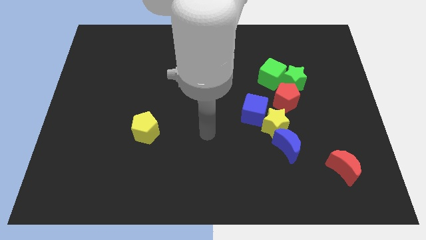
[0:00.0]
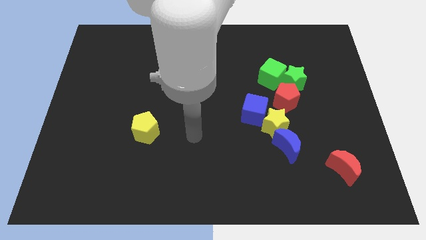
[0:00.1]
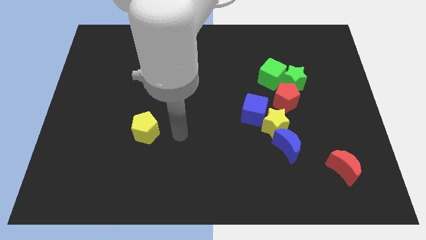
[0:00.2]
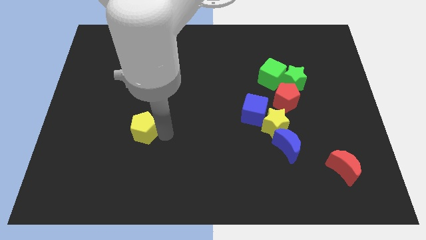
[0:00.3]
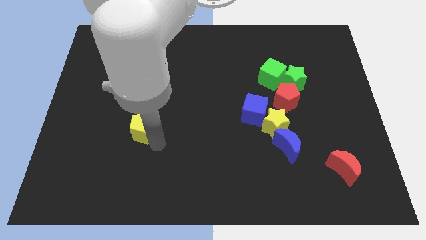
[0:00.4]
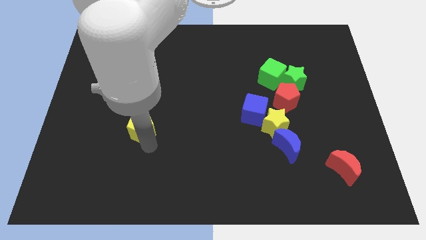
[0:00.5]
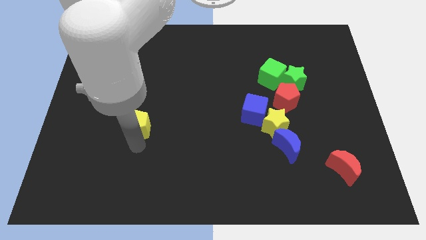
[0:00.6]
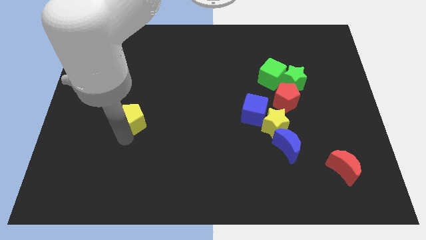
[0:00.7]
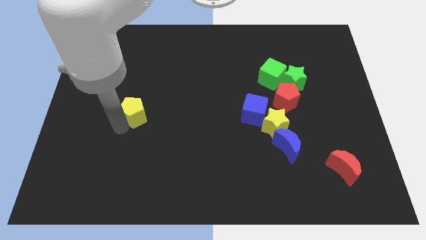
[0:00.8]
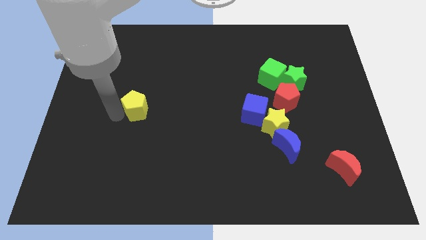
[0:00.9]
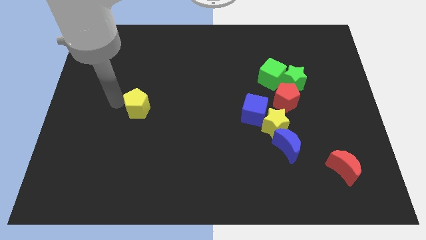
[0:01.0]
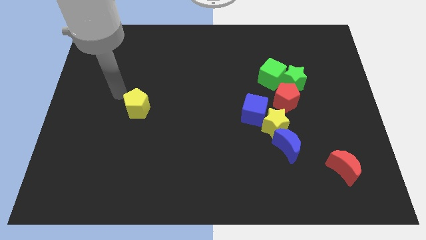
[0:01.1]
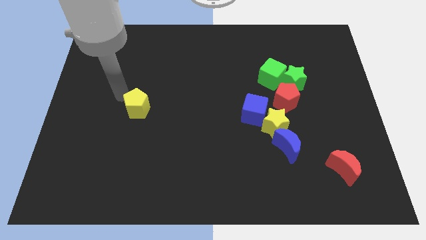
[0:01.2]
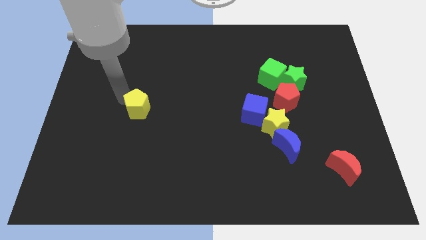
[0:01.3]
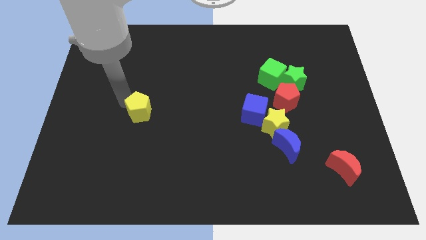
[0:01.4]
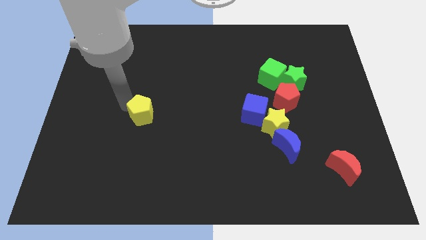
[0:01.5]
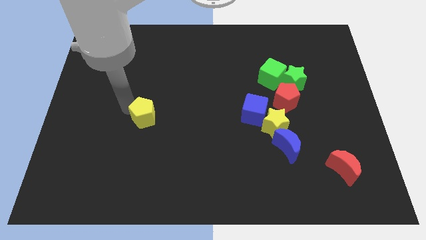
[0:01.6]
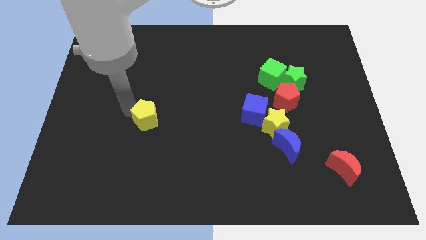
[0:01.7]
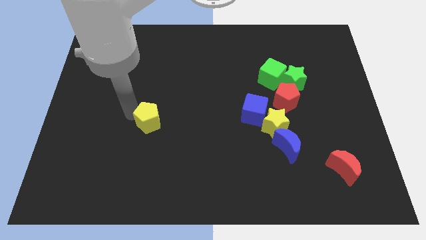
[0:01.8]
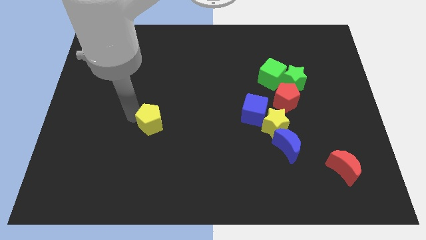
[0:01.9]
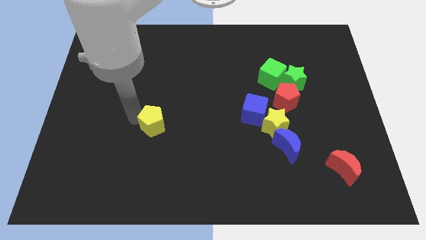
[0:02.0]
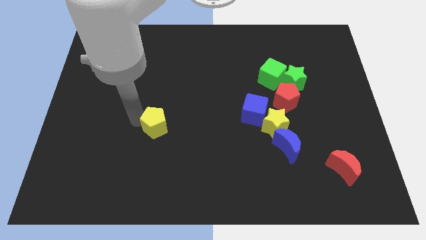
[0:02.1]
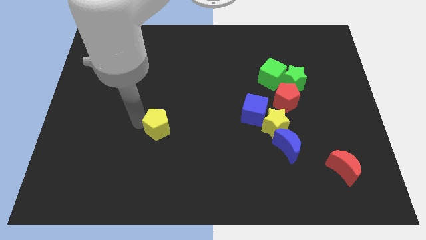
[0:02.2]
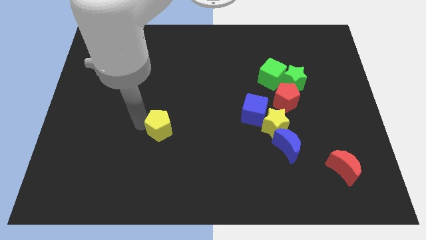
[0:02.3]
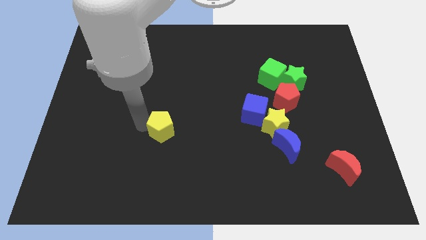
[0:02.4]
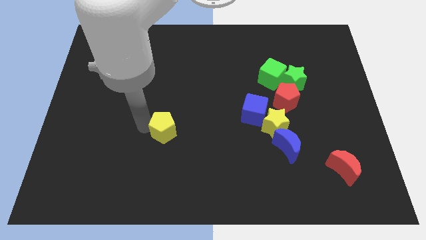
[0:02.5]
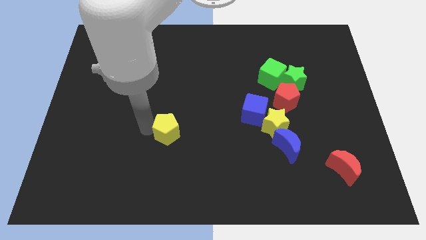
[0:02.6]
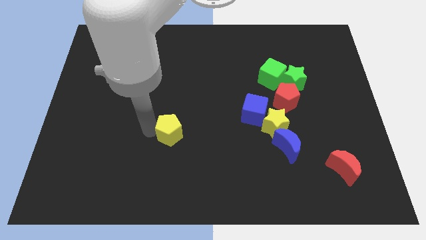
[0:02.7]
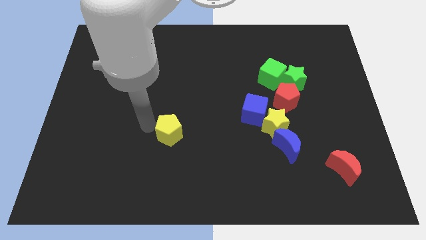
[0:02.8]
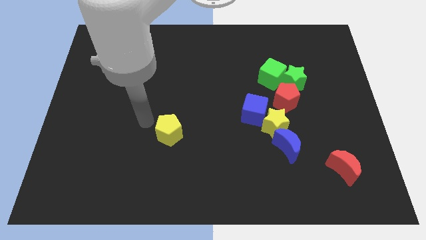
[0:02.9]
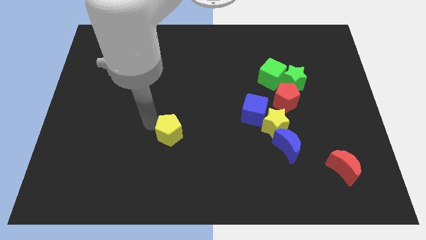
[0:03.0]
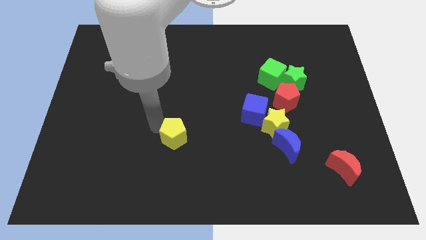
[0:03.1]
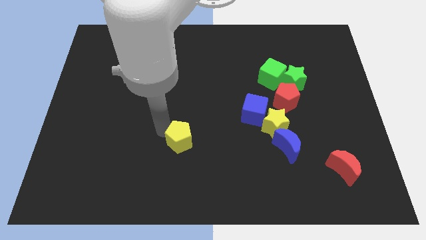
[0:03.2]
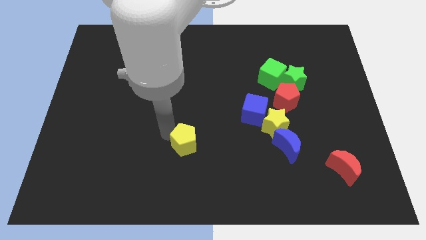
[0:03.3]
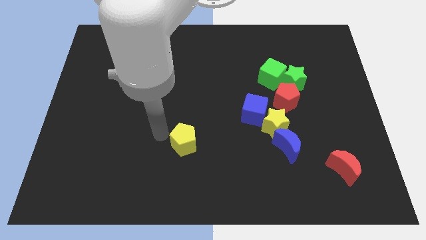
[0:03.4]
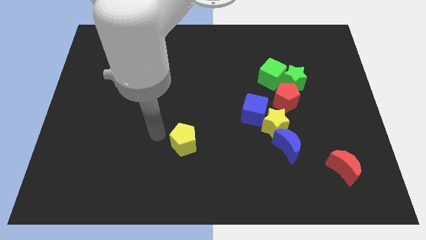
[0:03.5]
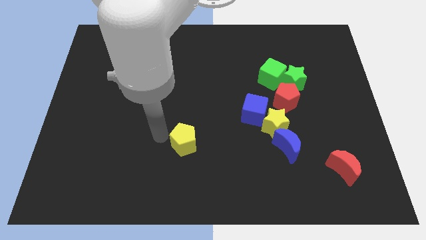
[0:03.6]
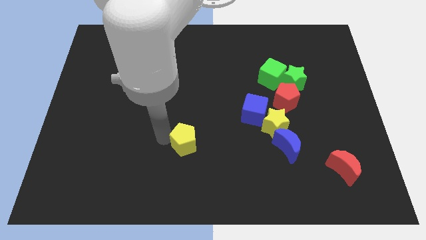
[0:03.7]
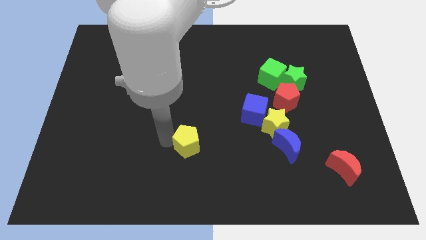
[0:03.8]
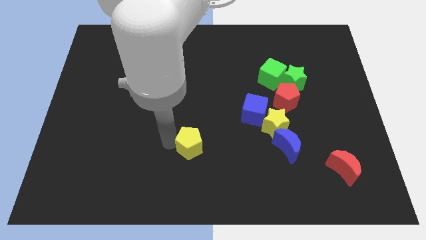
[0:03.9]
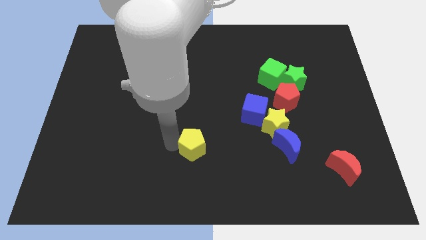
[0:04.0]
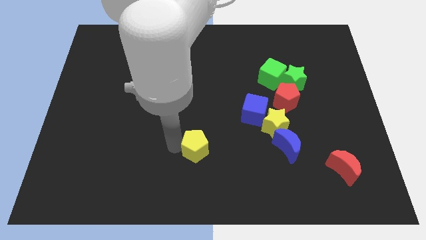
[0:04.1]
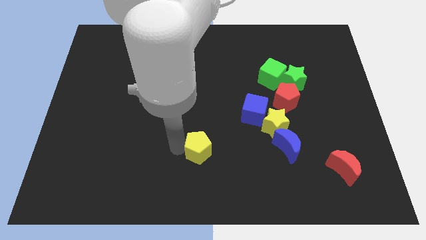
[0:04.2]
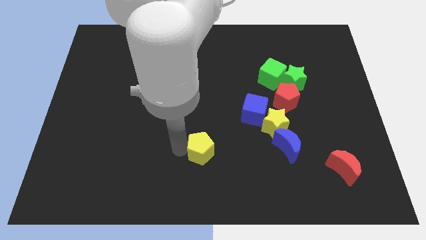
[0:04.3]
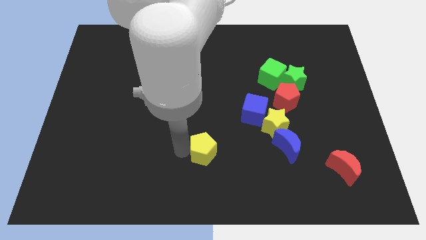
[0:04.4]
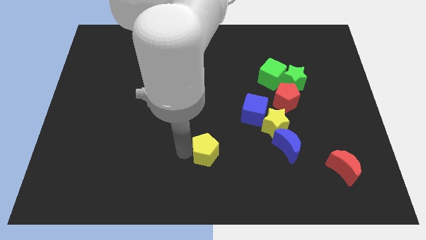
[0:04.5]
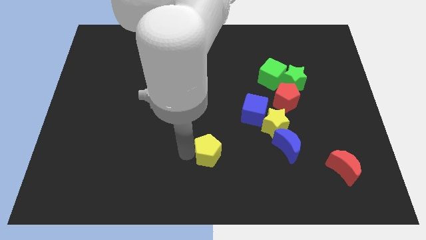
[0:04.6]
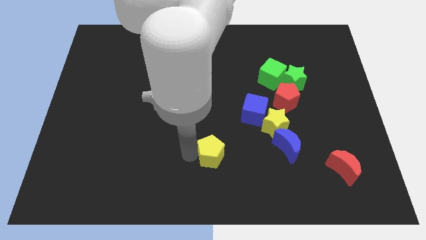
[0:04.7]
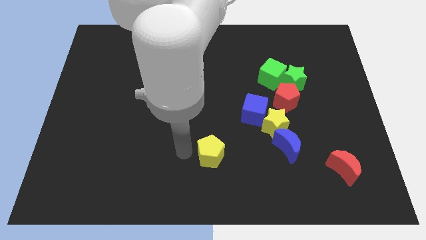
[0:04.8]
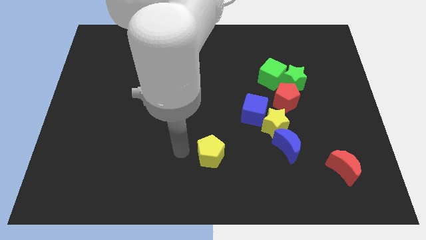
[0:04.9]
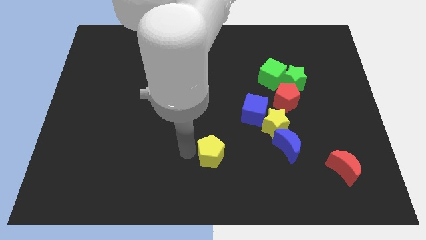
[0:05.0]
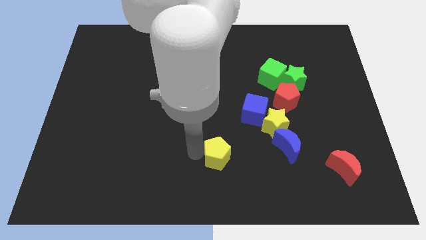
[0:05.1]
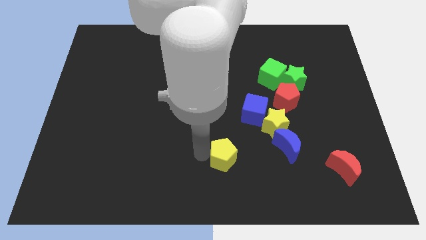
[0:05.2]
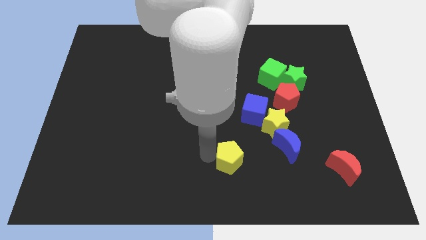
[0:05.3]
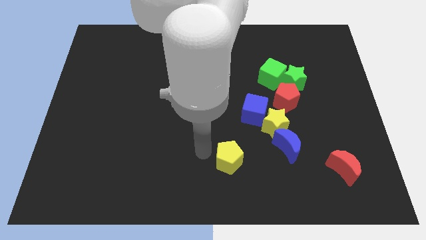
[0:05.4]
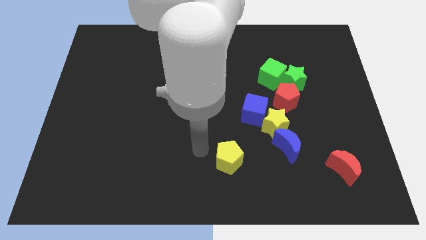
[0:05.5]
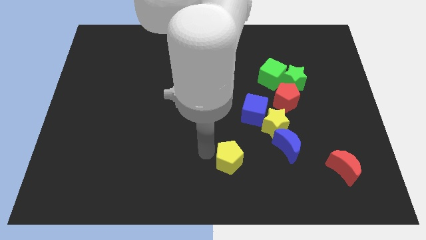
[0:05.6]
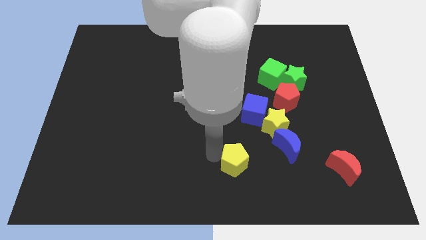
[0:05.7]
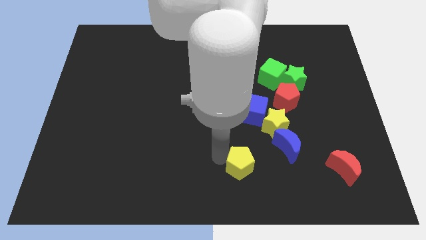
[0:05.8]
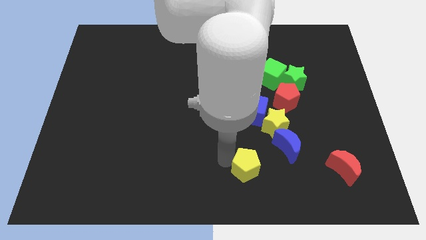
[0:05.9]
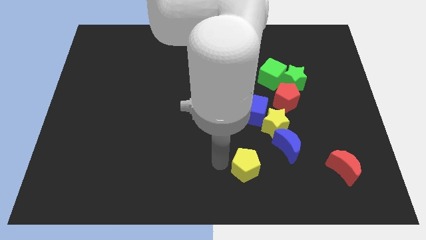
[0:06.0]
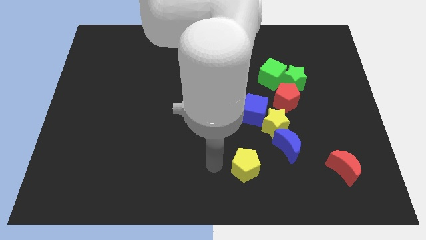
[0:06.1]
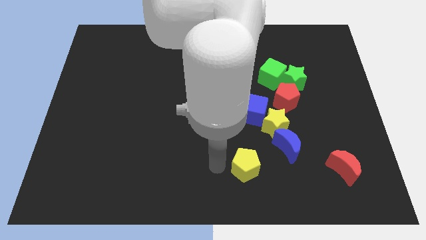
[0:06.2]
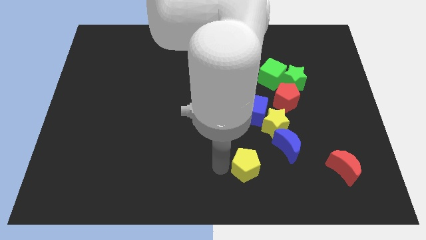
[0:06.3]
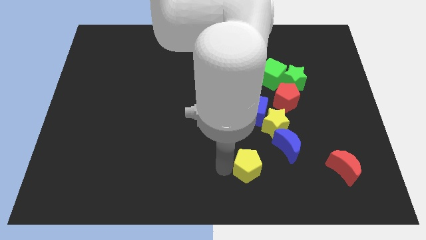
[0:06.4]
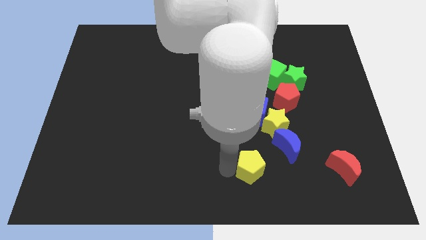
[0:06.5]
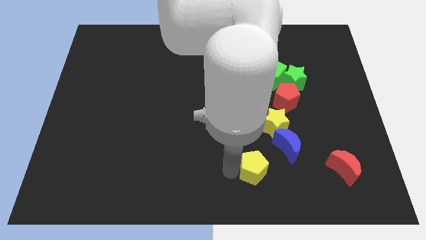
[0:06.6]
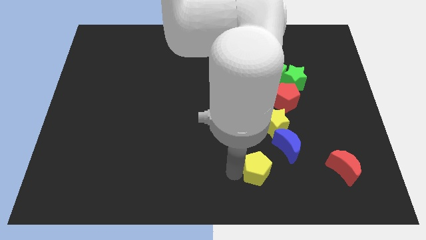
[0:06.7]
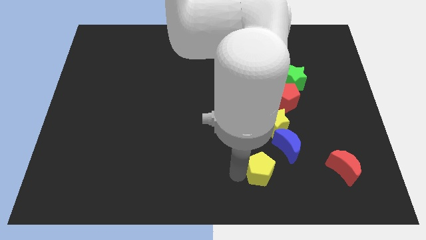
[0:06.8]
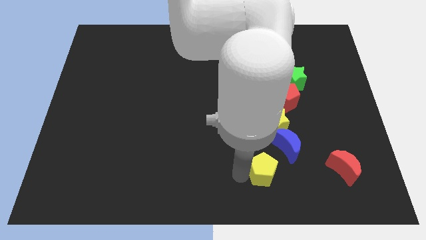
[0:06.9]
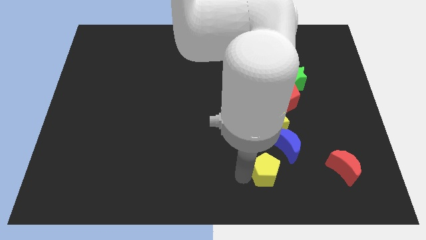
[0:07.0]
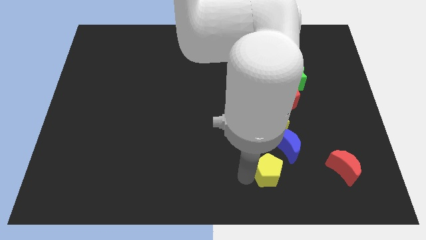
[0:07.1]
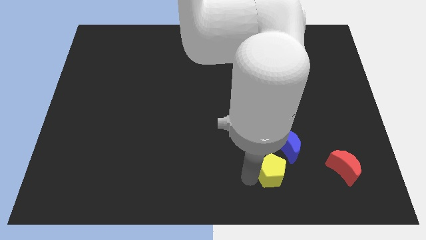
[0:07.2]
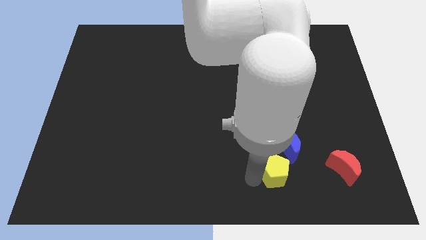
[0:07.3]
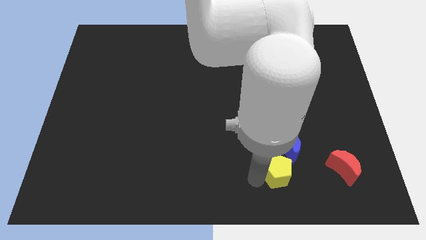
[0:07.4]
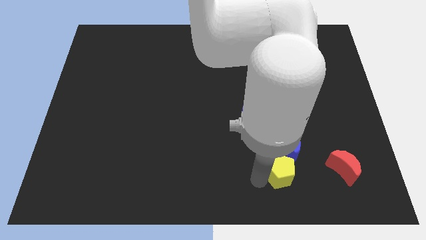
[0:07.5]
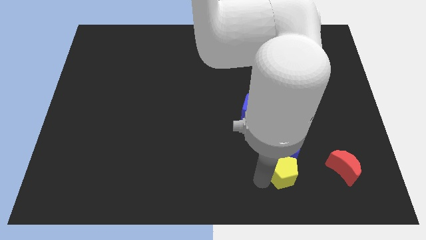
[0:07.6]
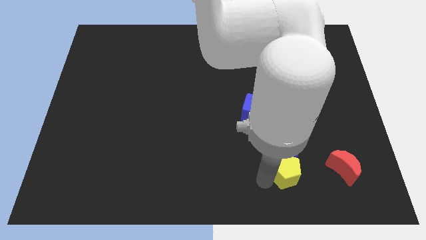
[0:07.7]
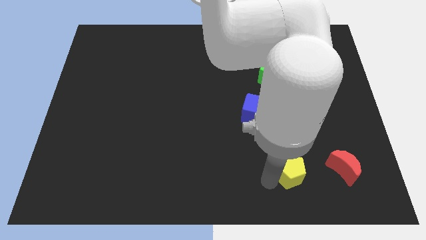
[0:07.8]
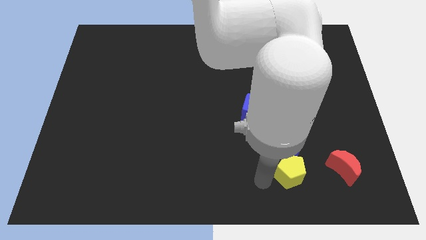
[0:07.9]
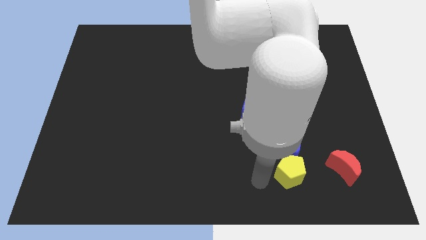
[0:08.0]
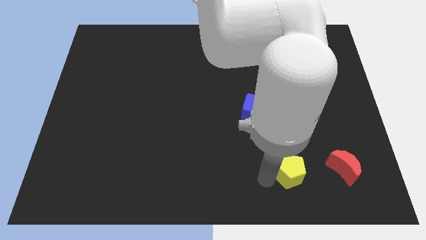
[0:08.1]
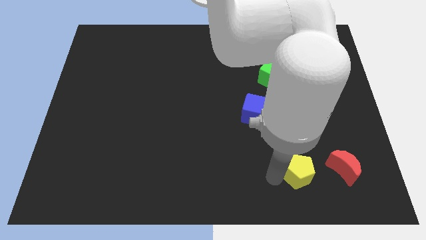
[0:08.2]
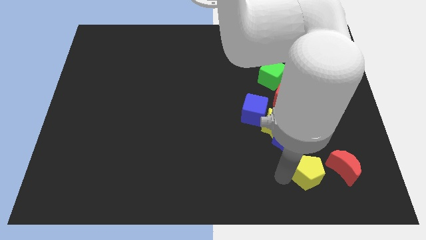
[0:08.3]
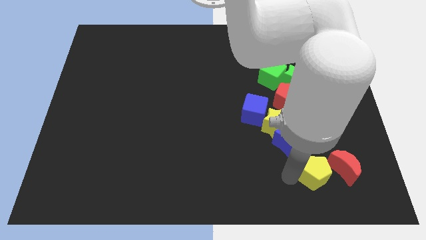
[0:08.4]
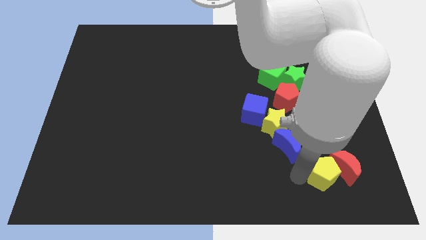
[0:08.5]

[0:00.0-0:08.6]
push the yellow pentagon to the red moon
